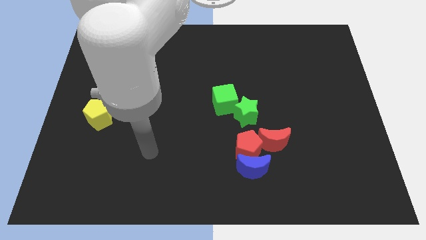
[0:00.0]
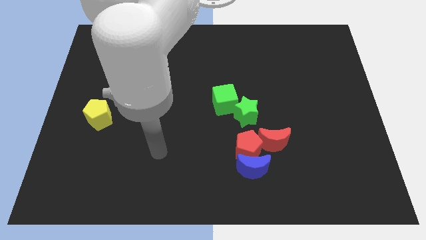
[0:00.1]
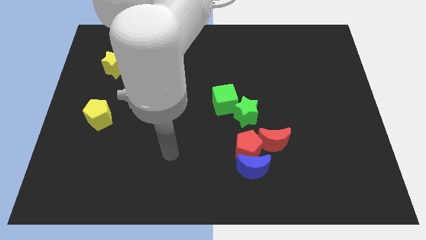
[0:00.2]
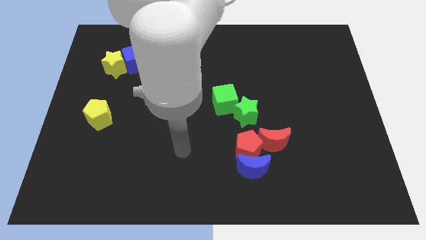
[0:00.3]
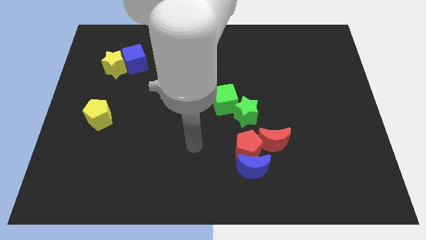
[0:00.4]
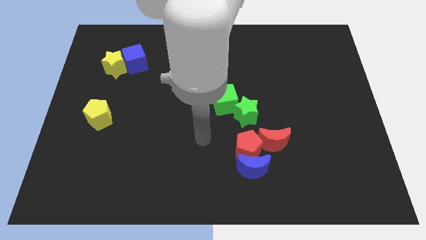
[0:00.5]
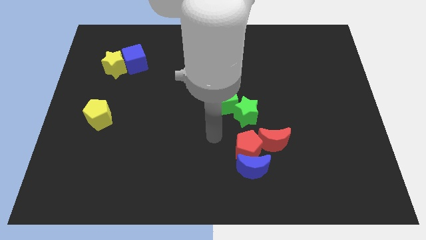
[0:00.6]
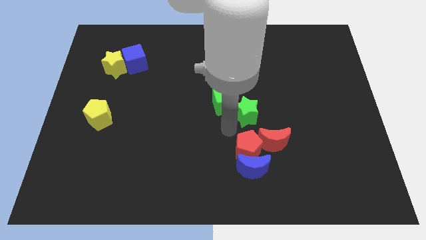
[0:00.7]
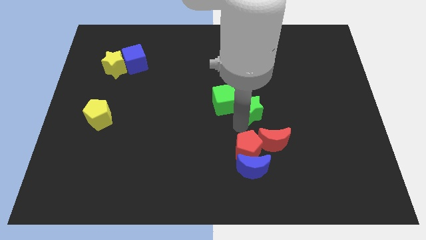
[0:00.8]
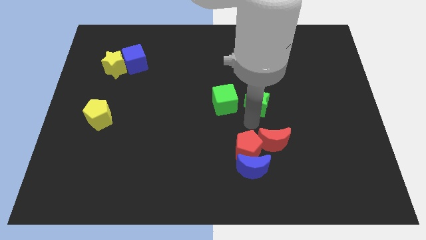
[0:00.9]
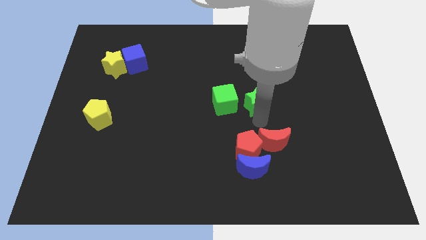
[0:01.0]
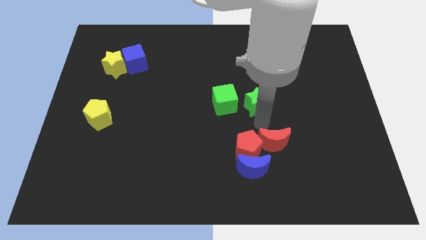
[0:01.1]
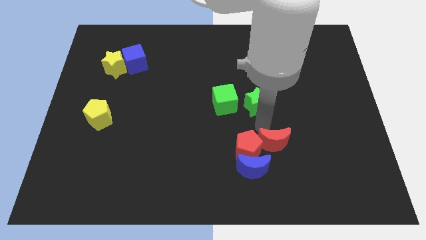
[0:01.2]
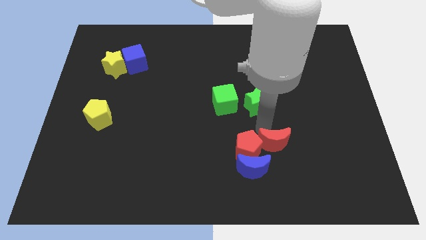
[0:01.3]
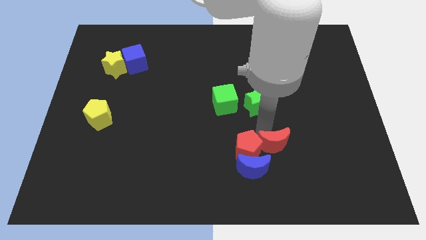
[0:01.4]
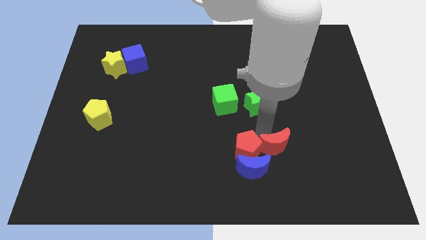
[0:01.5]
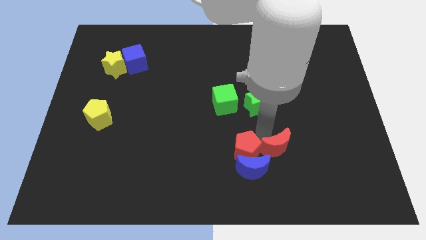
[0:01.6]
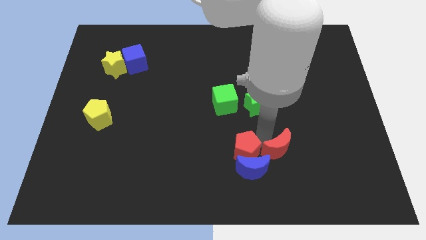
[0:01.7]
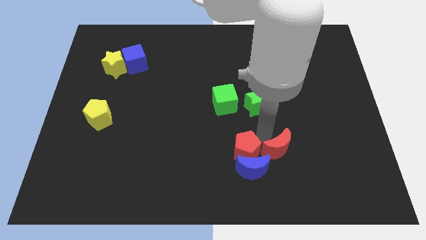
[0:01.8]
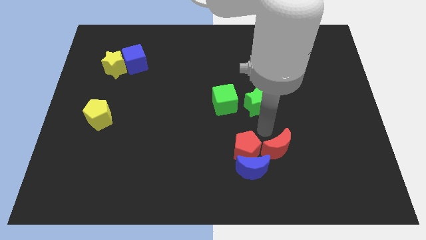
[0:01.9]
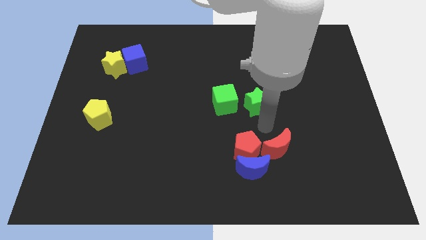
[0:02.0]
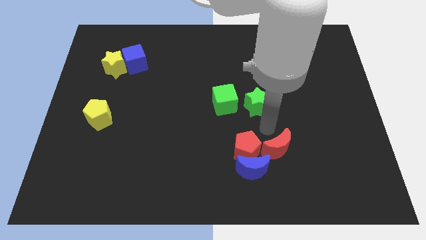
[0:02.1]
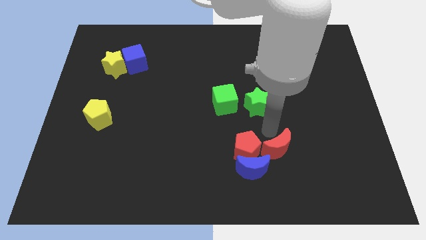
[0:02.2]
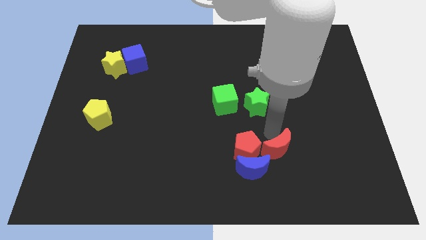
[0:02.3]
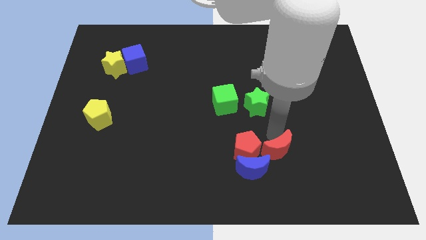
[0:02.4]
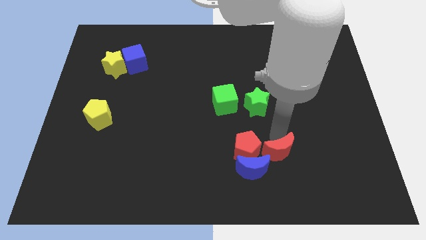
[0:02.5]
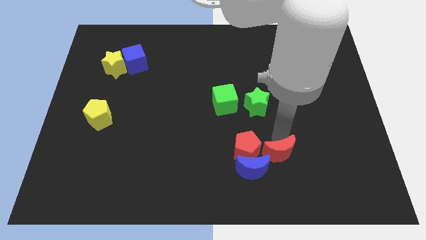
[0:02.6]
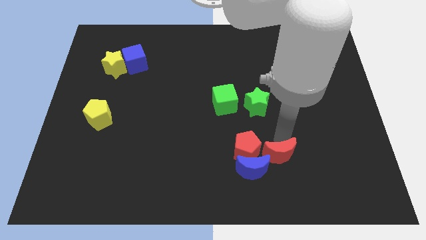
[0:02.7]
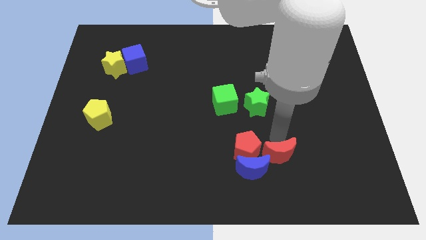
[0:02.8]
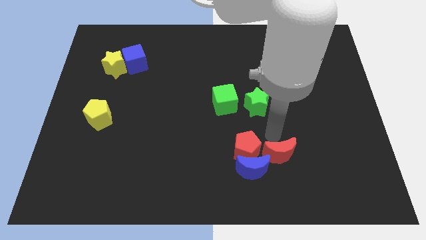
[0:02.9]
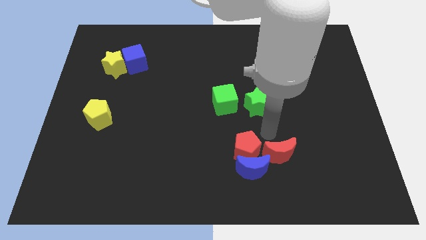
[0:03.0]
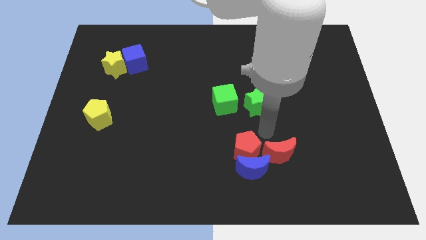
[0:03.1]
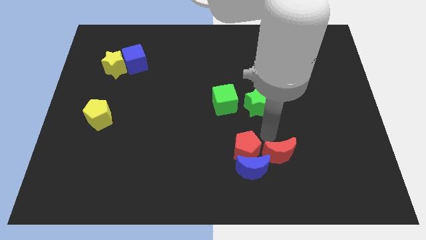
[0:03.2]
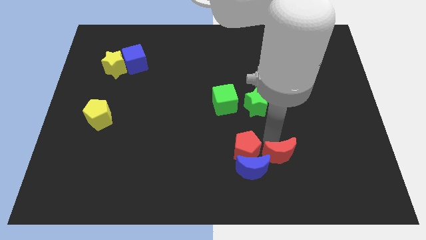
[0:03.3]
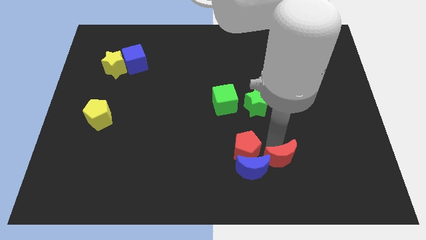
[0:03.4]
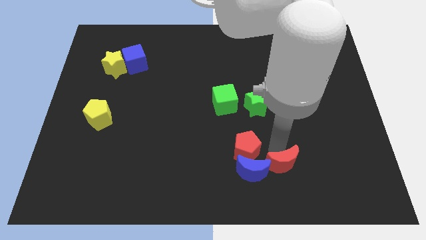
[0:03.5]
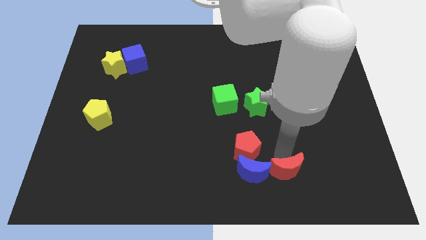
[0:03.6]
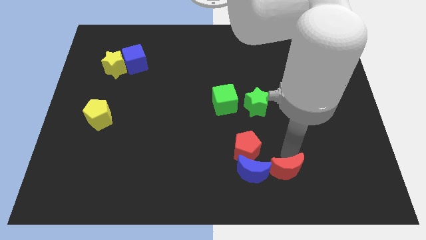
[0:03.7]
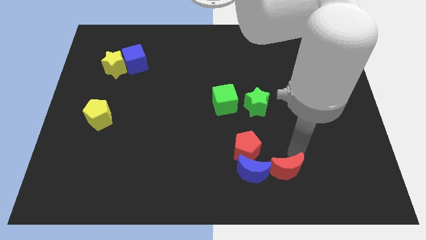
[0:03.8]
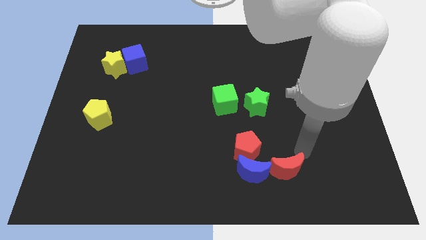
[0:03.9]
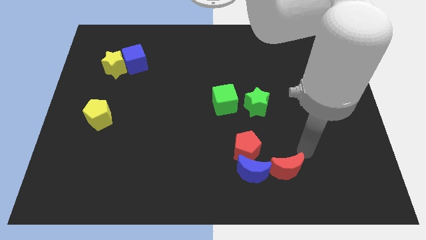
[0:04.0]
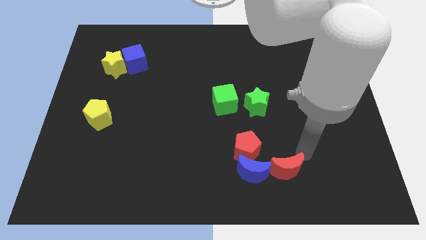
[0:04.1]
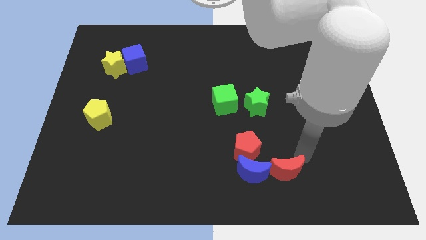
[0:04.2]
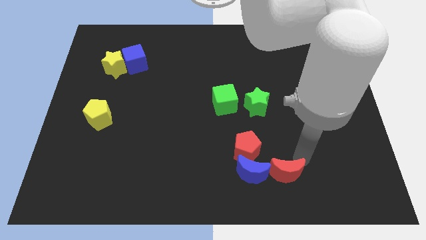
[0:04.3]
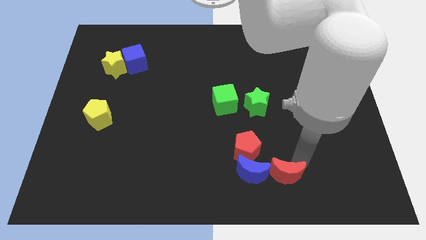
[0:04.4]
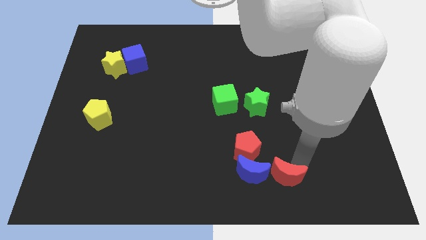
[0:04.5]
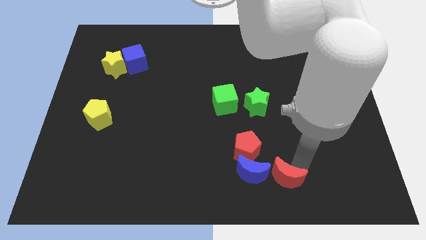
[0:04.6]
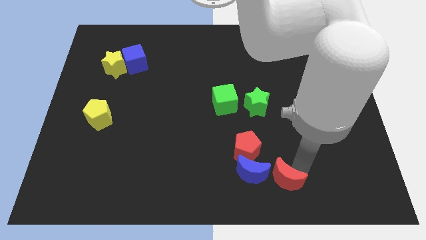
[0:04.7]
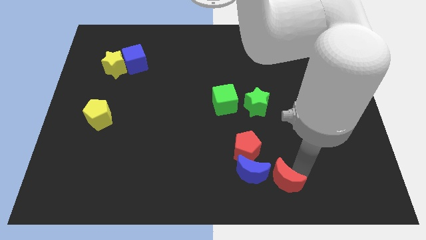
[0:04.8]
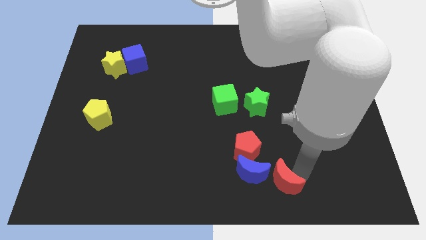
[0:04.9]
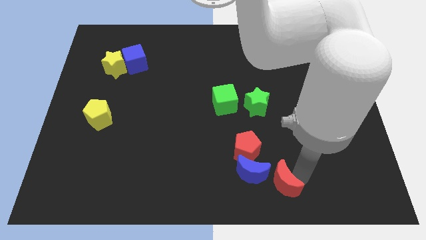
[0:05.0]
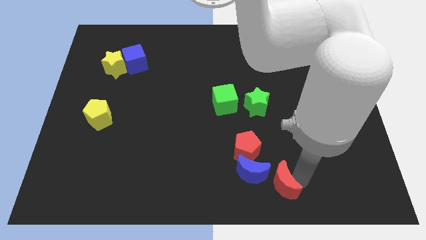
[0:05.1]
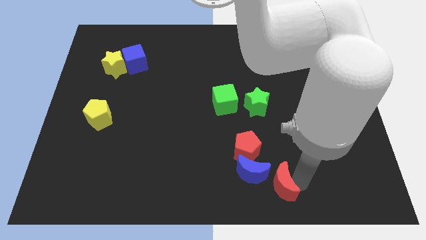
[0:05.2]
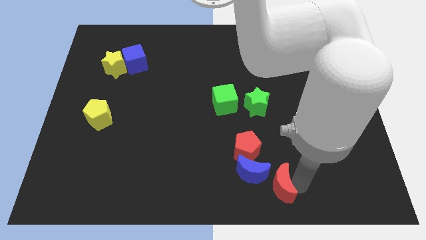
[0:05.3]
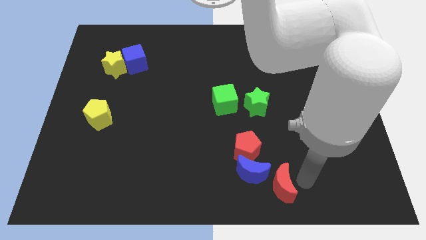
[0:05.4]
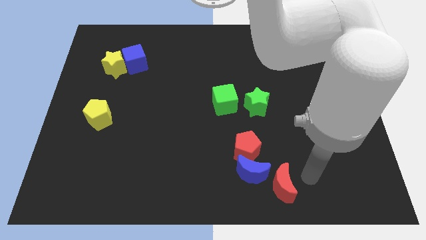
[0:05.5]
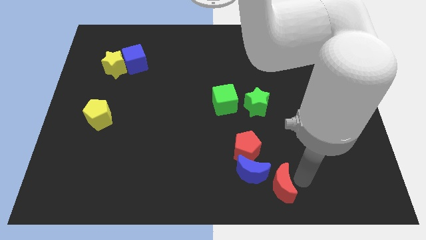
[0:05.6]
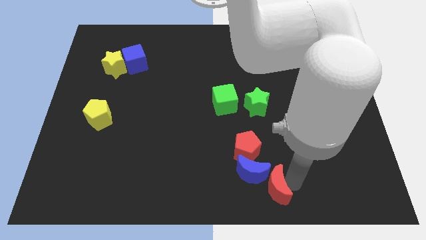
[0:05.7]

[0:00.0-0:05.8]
push the red moon to the bottom

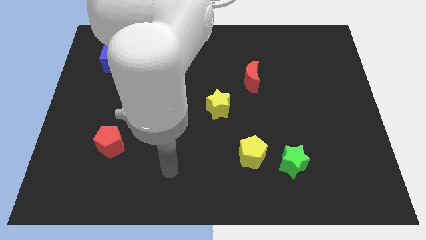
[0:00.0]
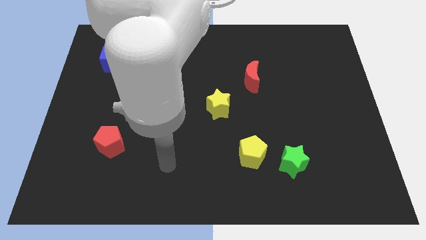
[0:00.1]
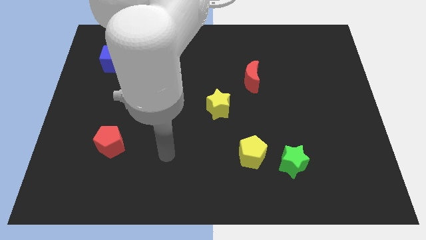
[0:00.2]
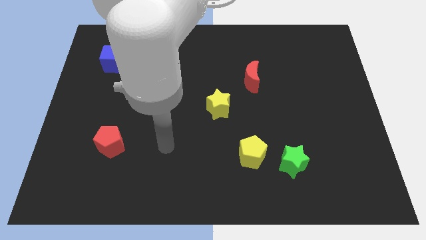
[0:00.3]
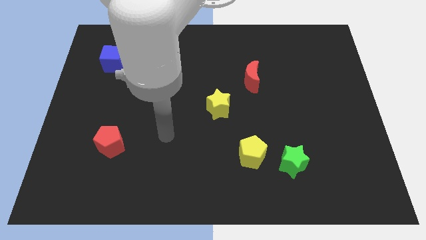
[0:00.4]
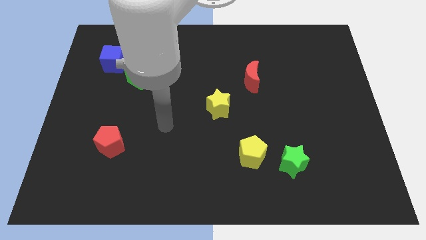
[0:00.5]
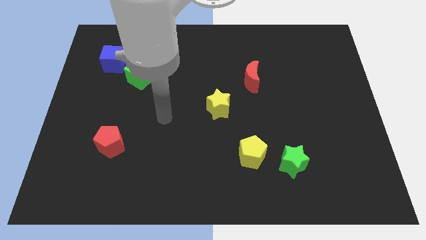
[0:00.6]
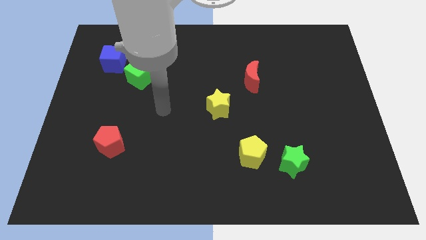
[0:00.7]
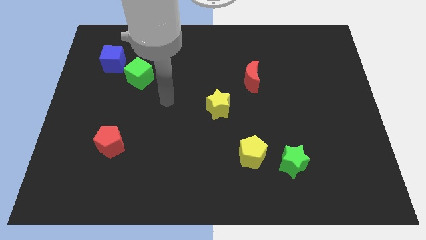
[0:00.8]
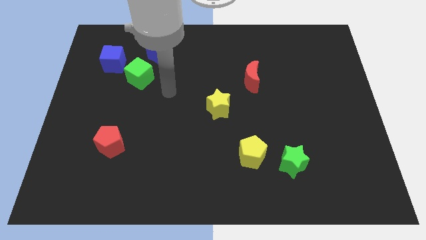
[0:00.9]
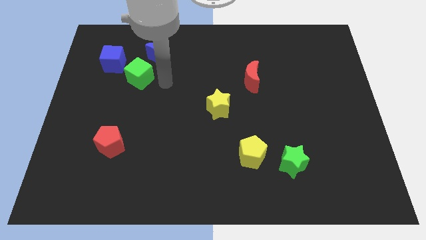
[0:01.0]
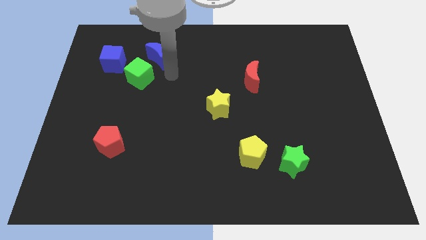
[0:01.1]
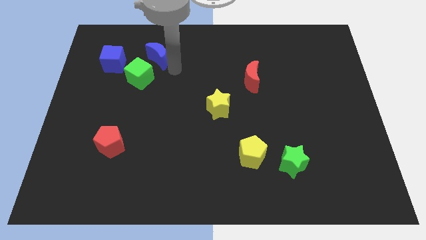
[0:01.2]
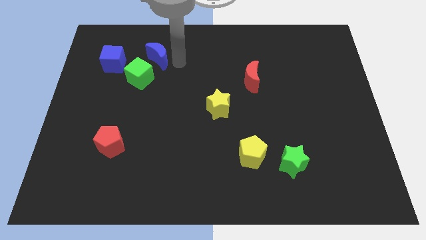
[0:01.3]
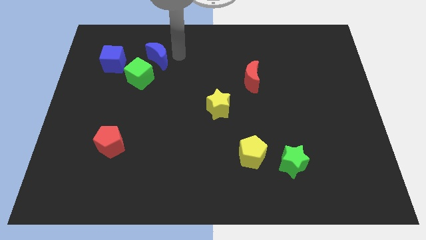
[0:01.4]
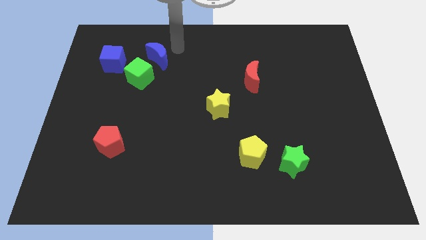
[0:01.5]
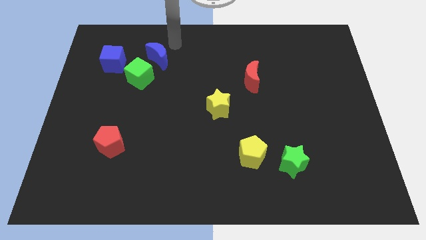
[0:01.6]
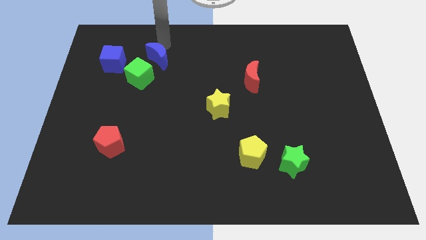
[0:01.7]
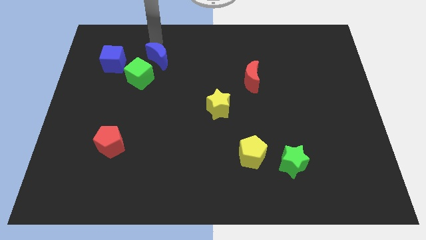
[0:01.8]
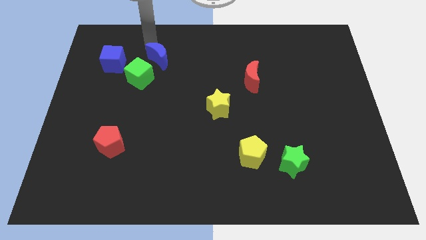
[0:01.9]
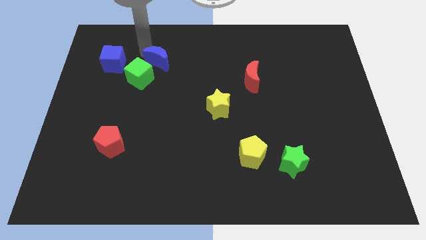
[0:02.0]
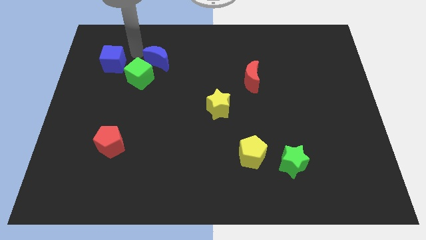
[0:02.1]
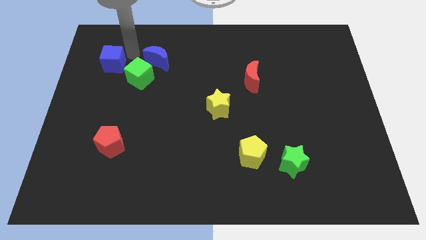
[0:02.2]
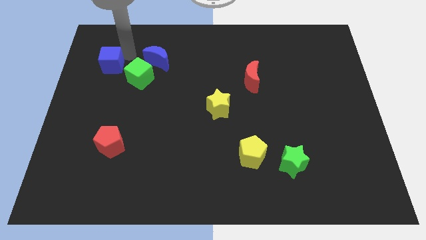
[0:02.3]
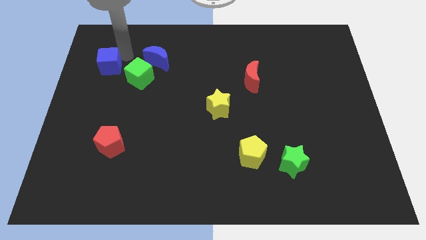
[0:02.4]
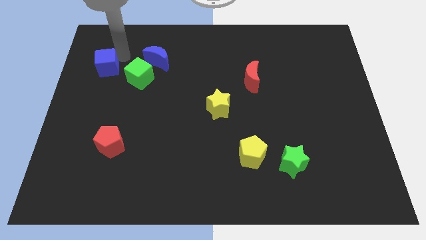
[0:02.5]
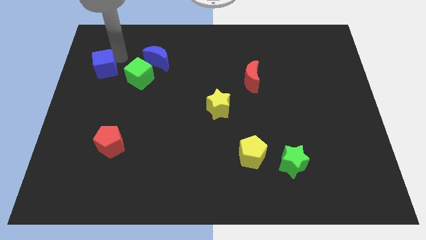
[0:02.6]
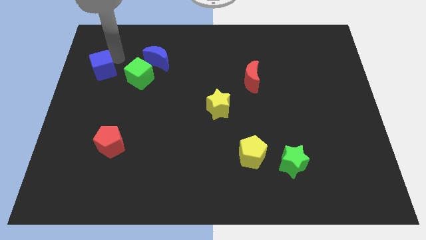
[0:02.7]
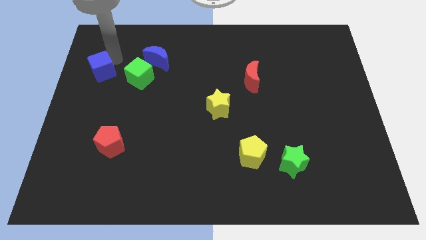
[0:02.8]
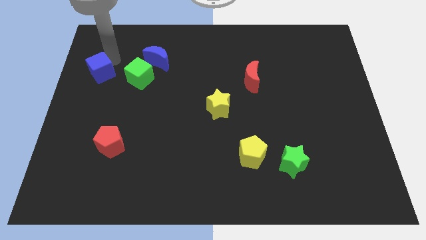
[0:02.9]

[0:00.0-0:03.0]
push the blue cube to the left side of the board
